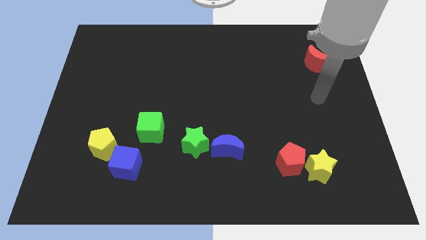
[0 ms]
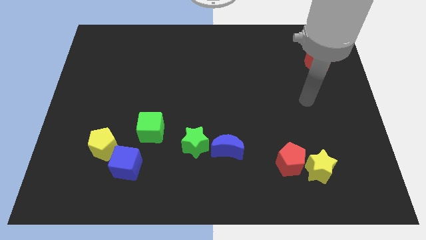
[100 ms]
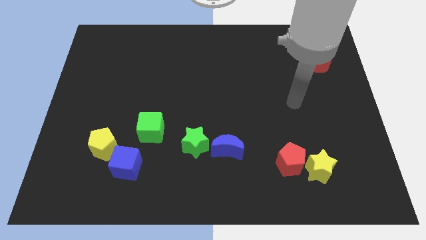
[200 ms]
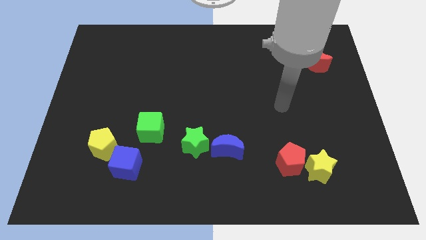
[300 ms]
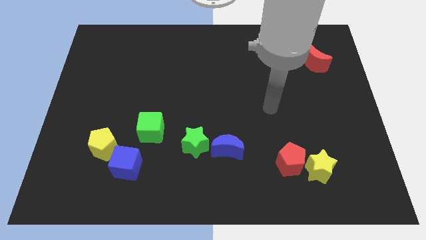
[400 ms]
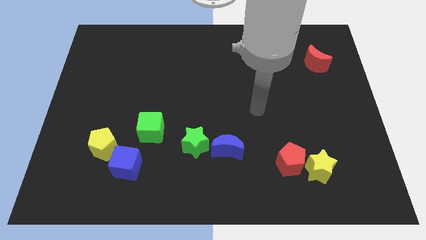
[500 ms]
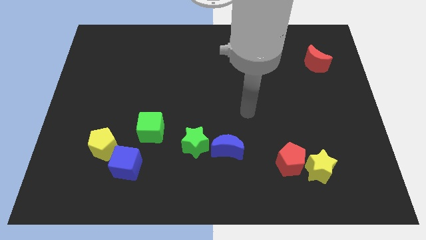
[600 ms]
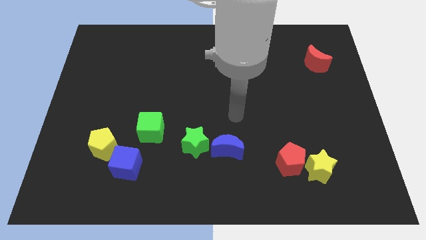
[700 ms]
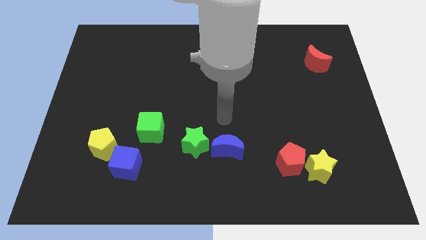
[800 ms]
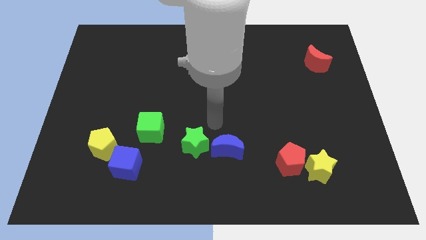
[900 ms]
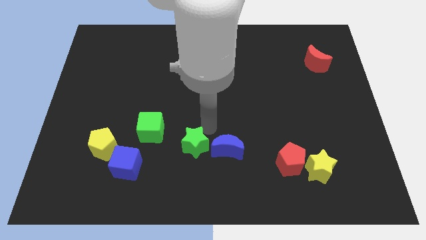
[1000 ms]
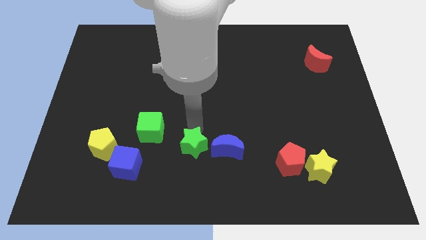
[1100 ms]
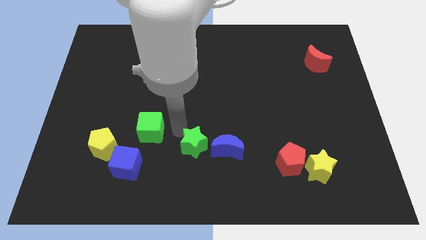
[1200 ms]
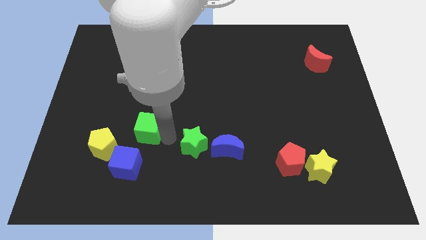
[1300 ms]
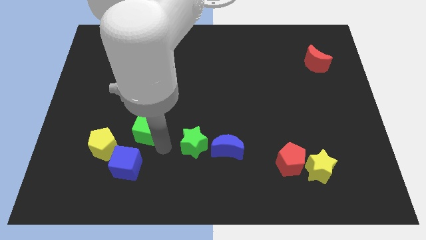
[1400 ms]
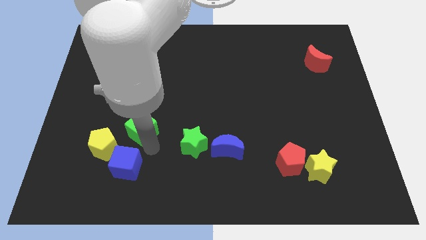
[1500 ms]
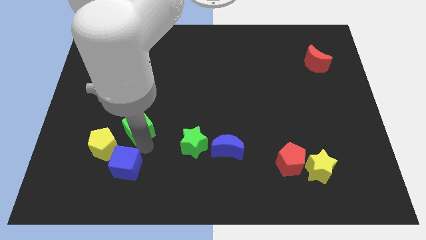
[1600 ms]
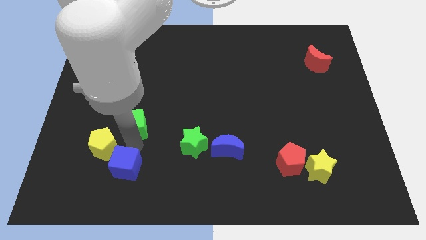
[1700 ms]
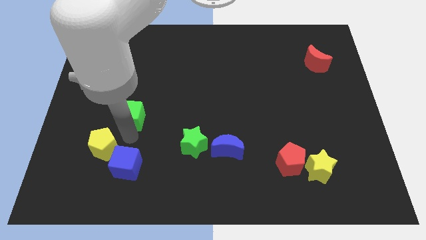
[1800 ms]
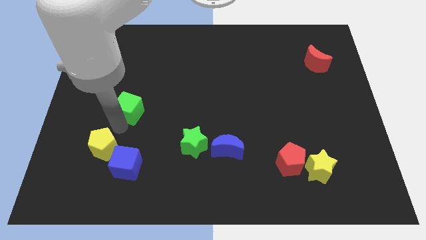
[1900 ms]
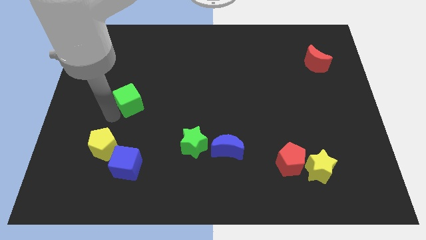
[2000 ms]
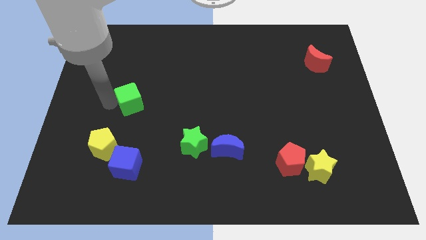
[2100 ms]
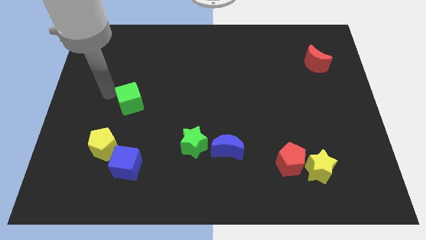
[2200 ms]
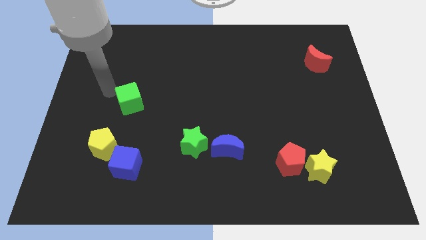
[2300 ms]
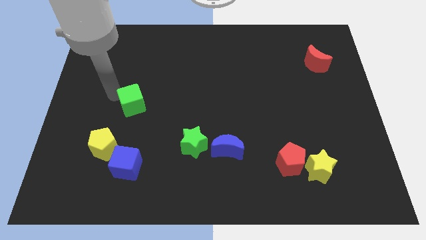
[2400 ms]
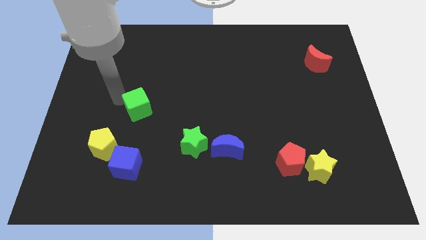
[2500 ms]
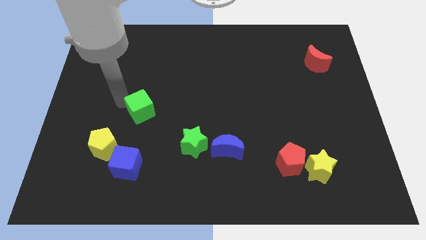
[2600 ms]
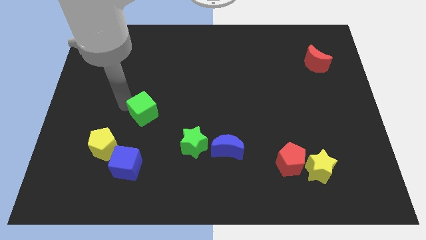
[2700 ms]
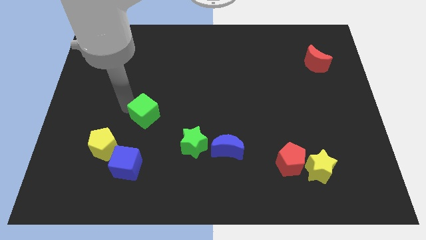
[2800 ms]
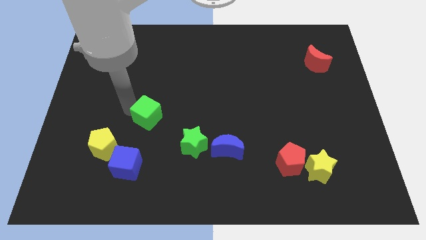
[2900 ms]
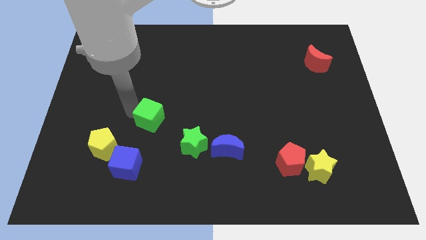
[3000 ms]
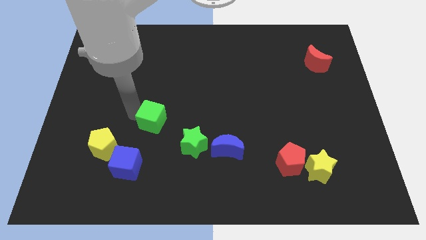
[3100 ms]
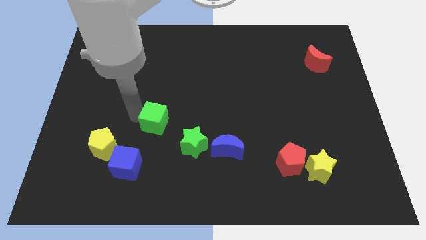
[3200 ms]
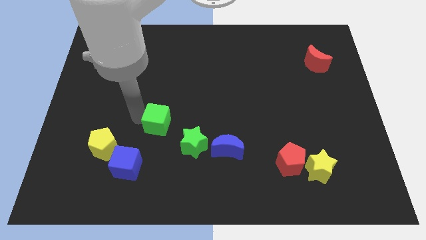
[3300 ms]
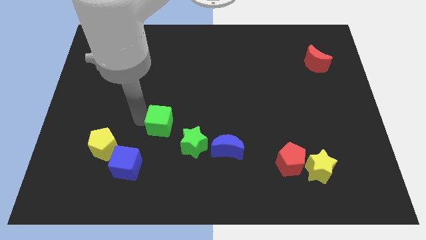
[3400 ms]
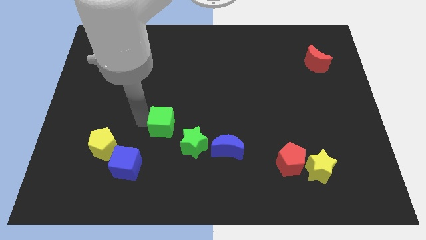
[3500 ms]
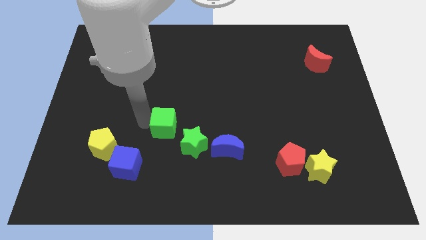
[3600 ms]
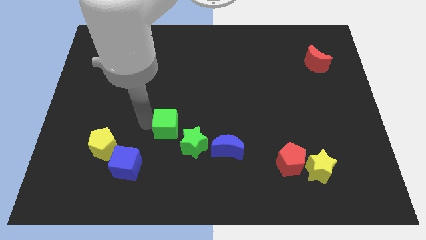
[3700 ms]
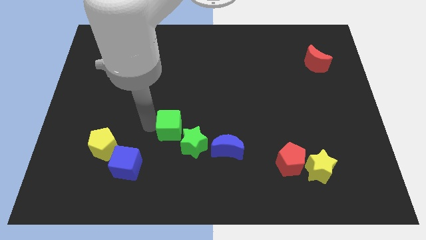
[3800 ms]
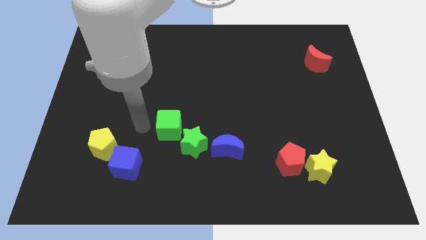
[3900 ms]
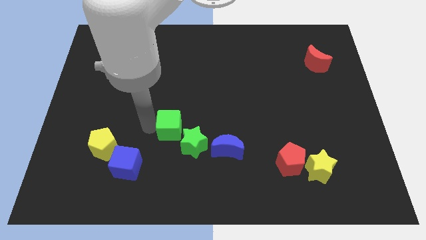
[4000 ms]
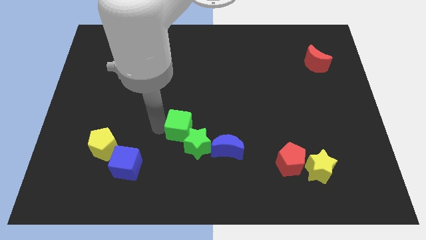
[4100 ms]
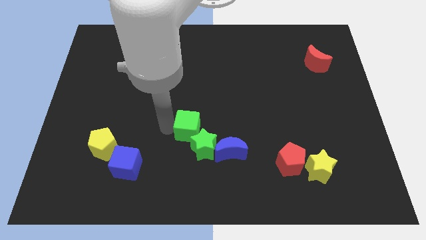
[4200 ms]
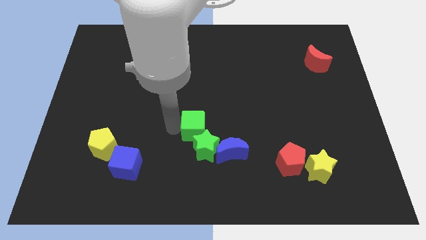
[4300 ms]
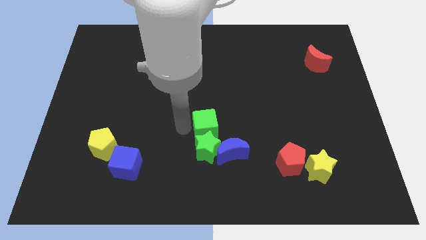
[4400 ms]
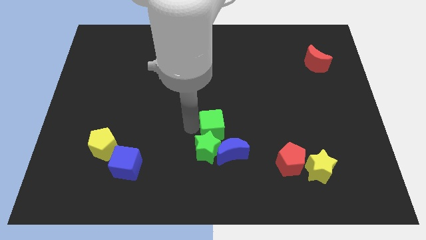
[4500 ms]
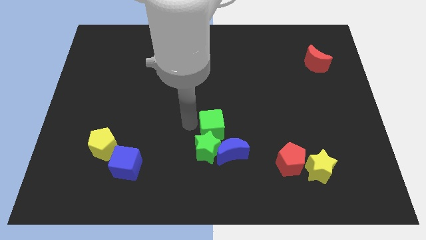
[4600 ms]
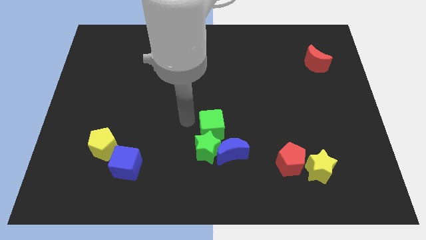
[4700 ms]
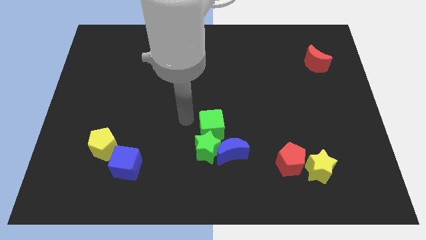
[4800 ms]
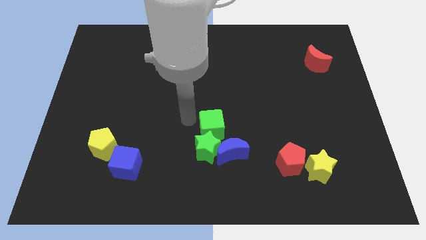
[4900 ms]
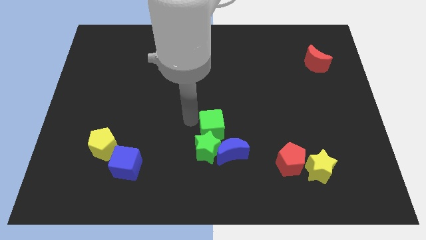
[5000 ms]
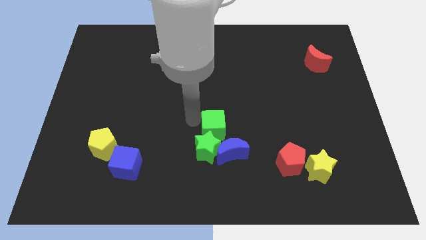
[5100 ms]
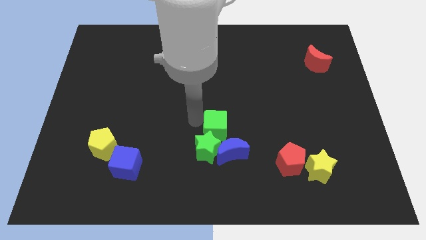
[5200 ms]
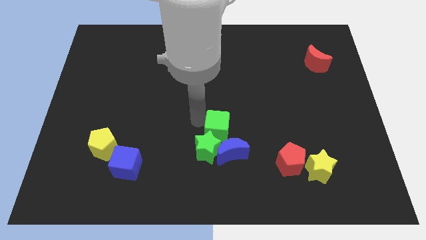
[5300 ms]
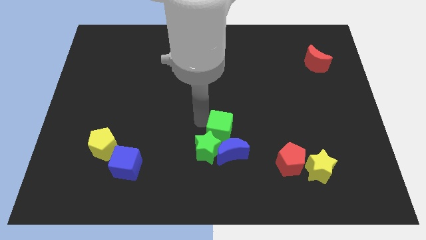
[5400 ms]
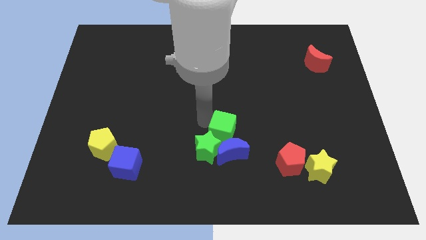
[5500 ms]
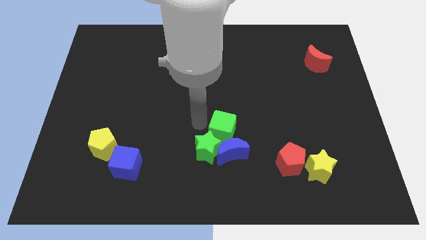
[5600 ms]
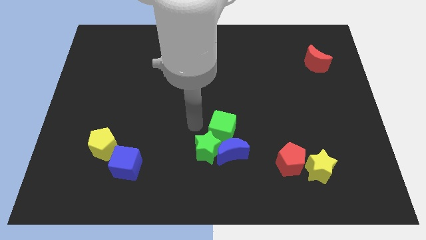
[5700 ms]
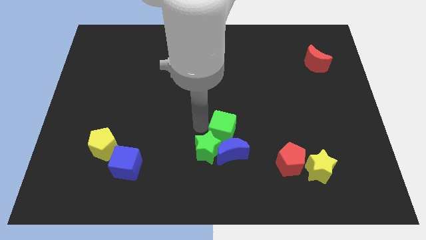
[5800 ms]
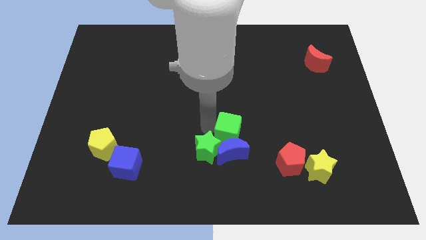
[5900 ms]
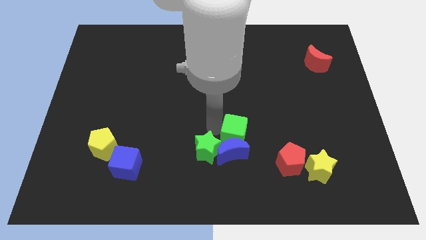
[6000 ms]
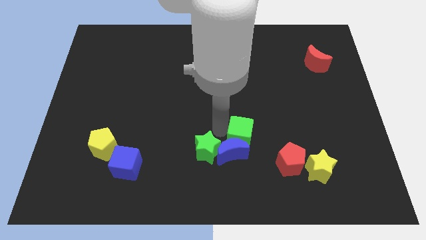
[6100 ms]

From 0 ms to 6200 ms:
move the green cube right

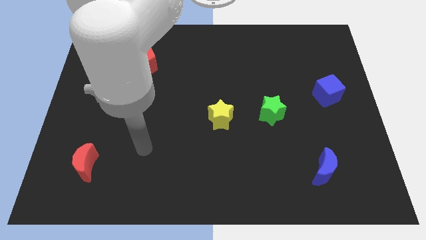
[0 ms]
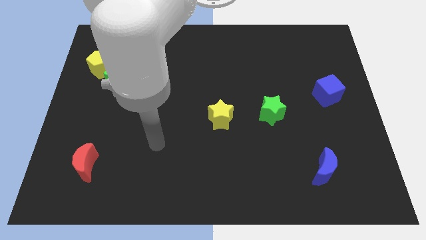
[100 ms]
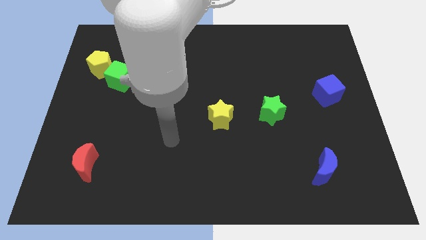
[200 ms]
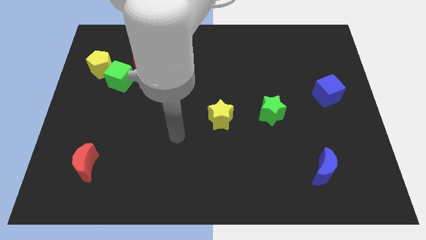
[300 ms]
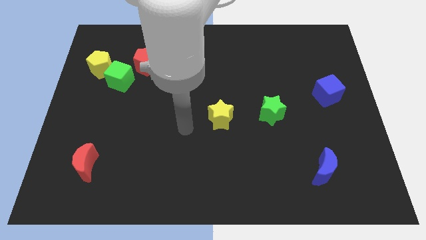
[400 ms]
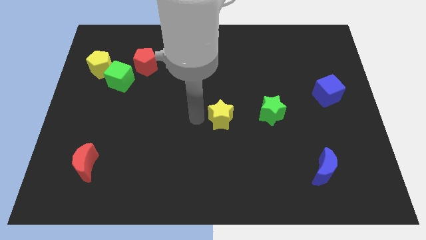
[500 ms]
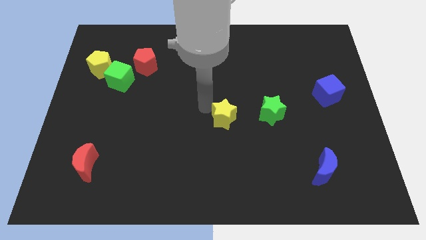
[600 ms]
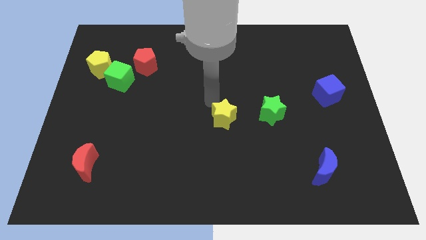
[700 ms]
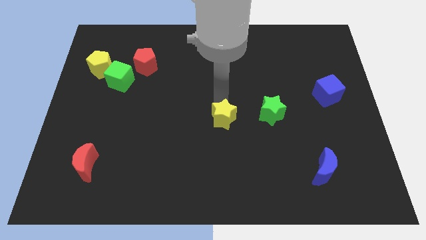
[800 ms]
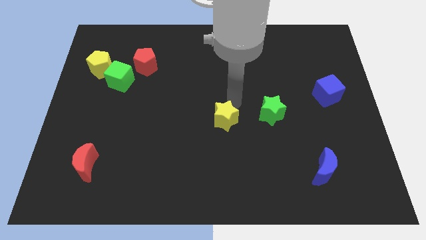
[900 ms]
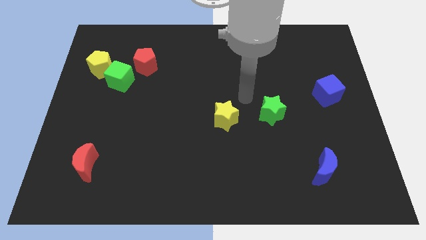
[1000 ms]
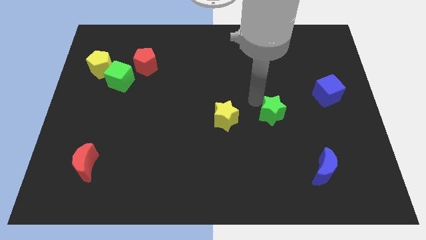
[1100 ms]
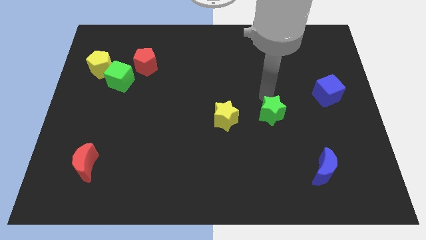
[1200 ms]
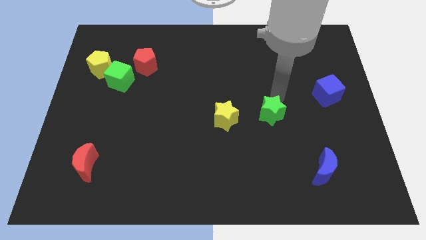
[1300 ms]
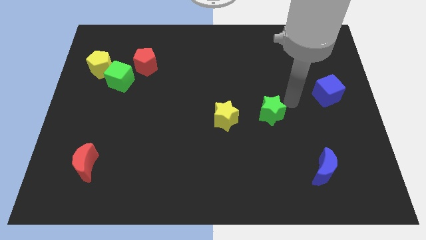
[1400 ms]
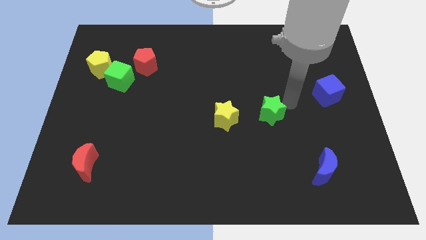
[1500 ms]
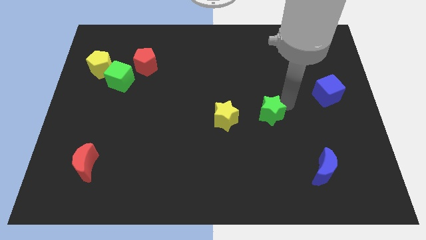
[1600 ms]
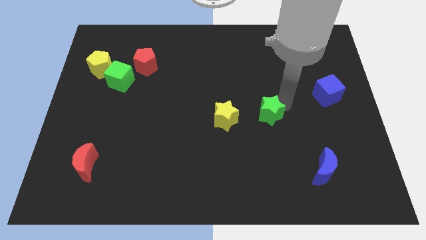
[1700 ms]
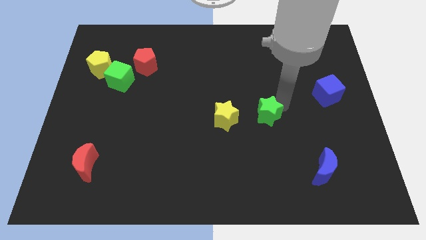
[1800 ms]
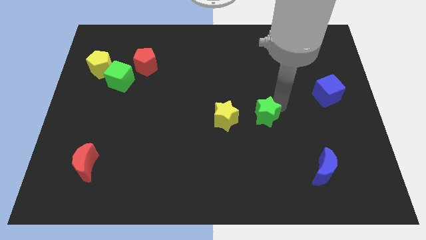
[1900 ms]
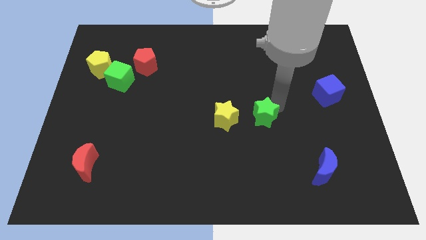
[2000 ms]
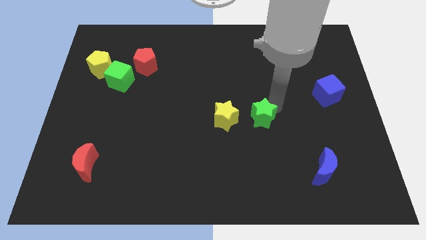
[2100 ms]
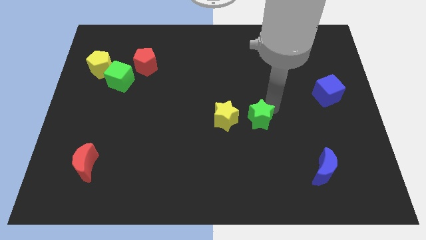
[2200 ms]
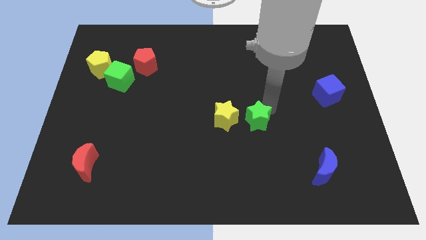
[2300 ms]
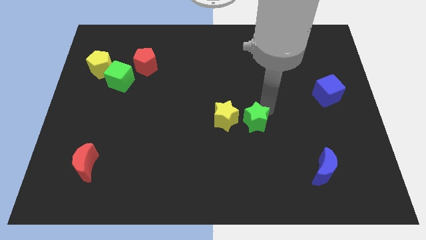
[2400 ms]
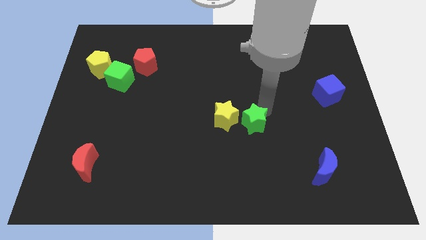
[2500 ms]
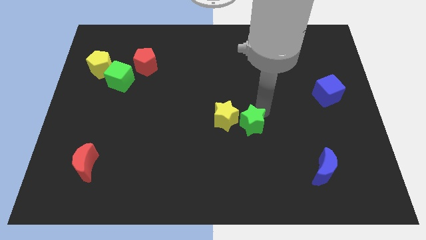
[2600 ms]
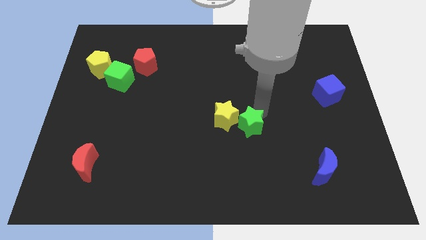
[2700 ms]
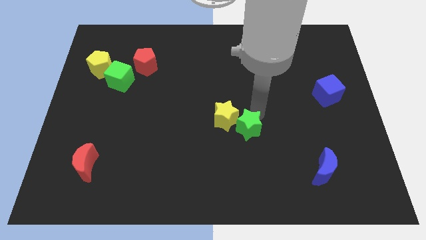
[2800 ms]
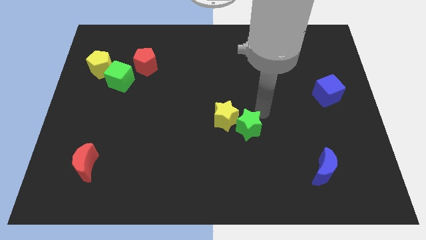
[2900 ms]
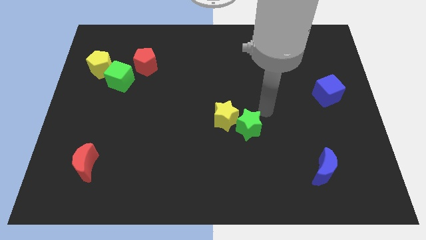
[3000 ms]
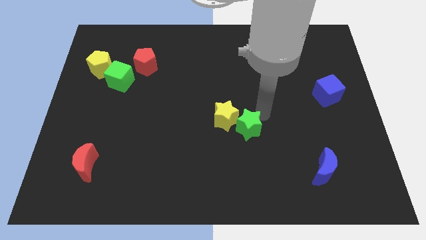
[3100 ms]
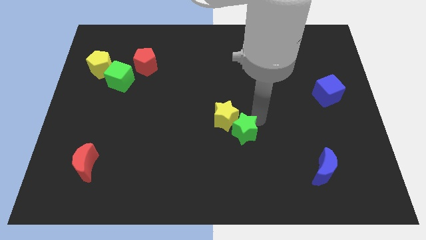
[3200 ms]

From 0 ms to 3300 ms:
slightly move the green star down and left
